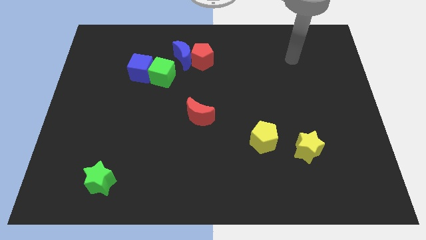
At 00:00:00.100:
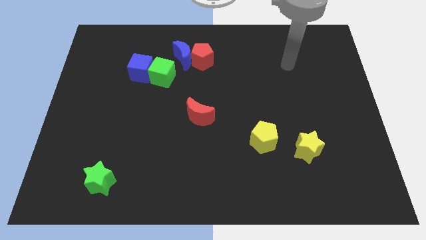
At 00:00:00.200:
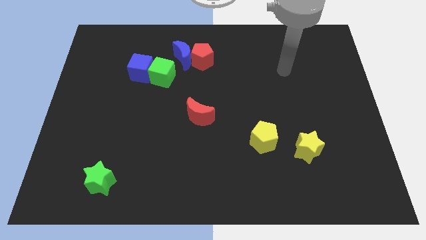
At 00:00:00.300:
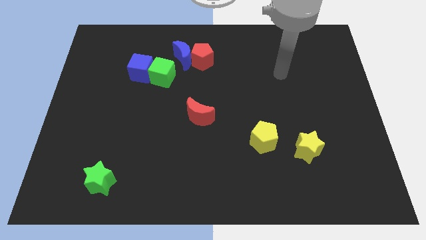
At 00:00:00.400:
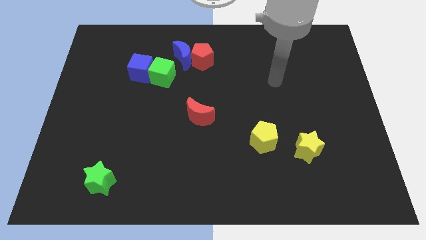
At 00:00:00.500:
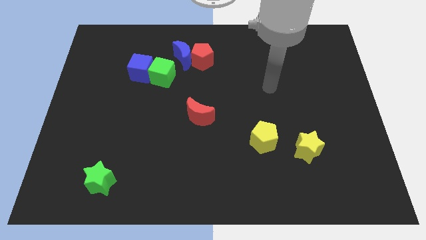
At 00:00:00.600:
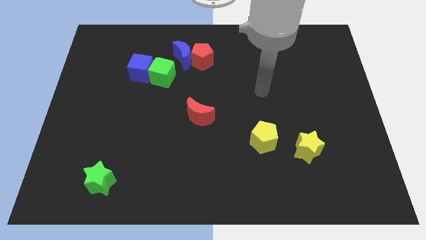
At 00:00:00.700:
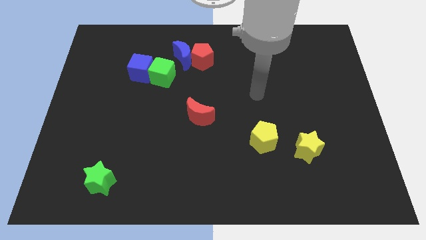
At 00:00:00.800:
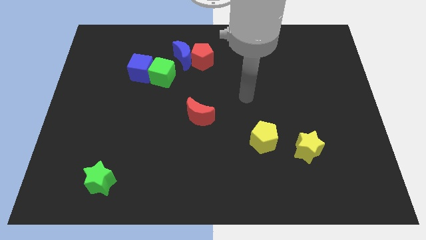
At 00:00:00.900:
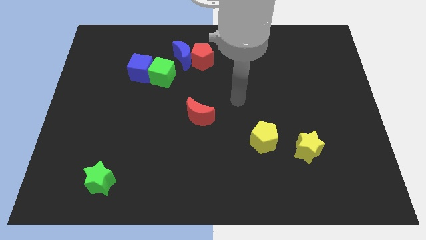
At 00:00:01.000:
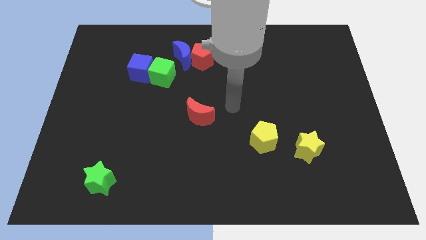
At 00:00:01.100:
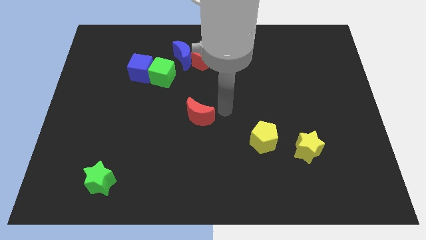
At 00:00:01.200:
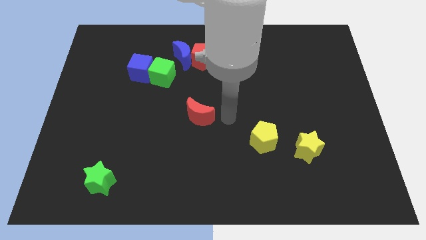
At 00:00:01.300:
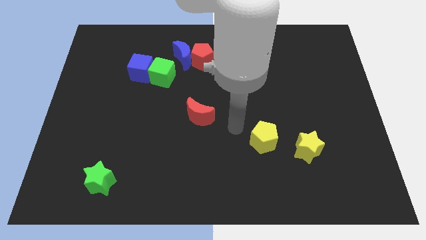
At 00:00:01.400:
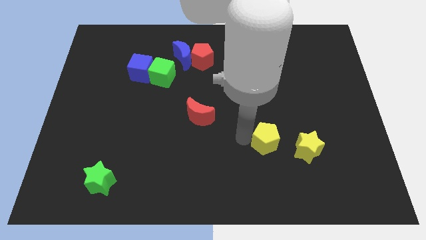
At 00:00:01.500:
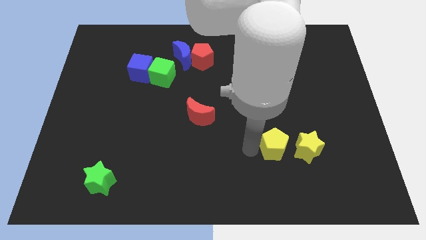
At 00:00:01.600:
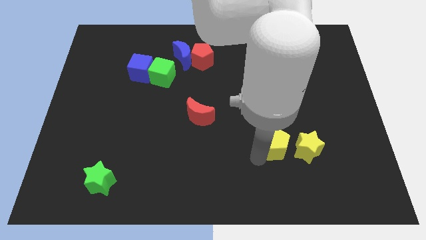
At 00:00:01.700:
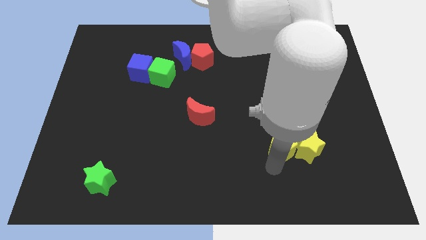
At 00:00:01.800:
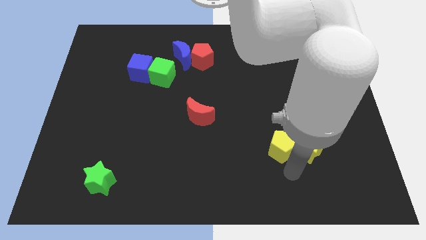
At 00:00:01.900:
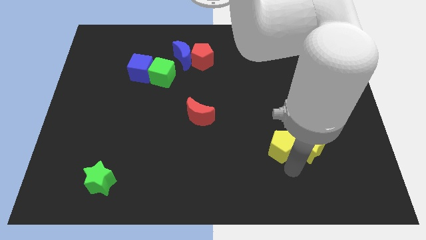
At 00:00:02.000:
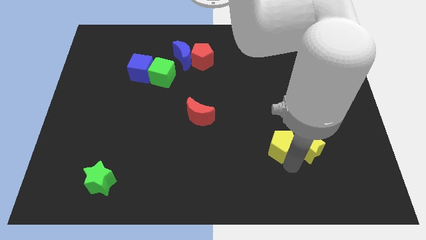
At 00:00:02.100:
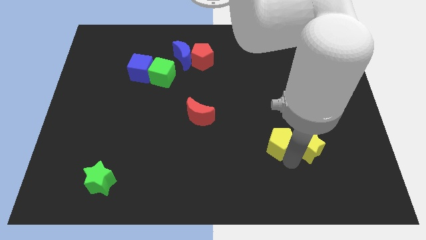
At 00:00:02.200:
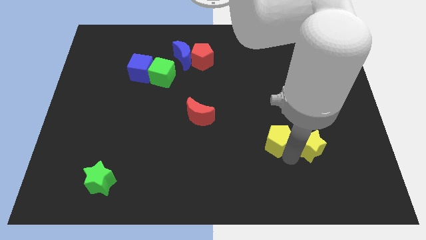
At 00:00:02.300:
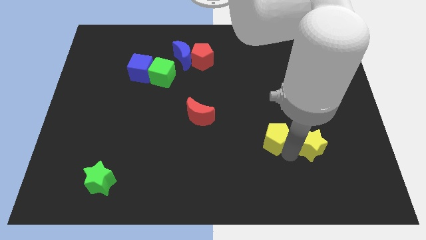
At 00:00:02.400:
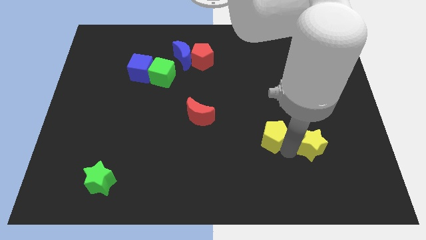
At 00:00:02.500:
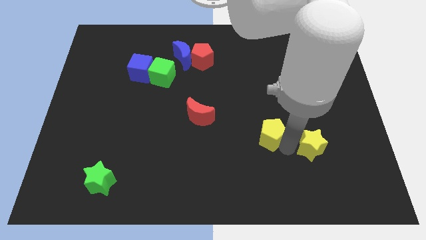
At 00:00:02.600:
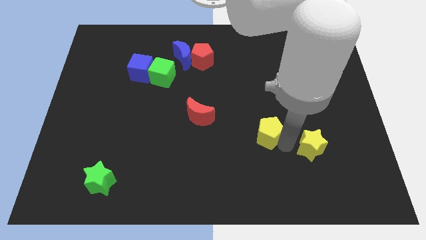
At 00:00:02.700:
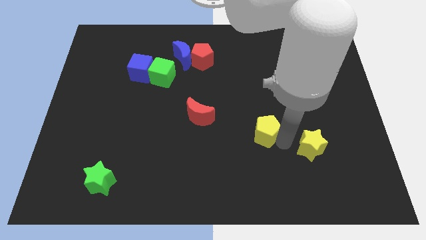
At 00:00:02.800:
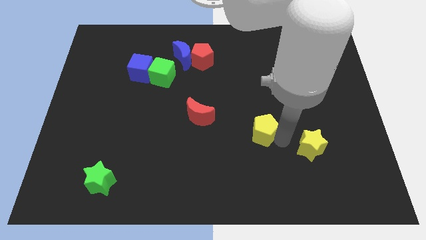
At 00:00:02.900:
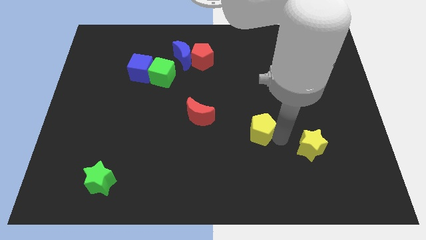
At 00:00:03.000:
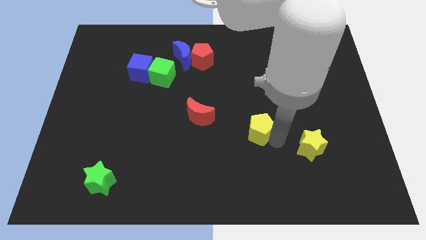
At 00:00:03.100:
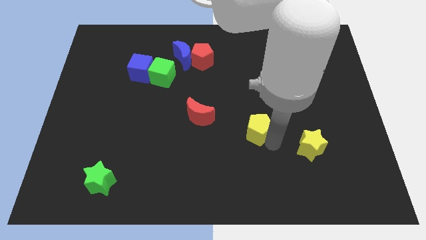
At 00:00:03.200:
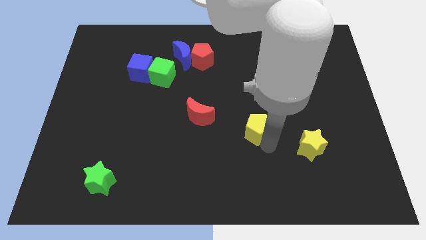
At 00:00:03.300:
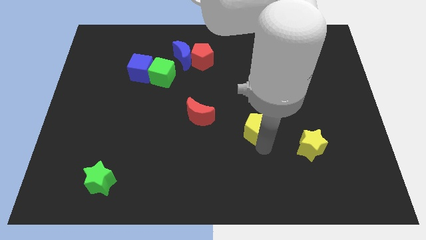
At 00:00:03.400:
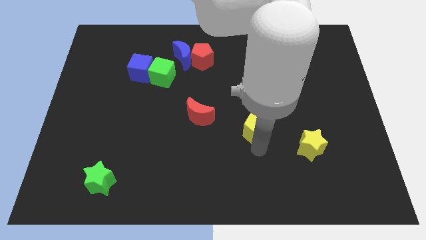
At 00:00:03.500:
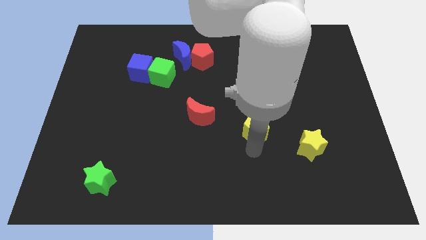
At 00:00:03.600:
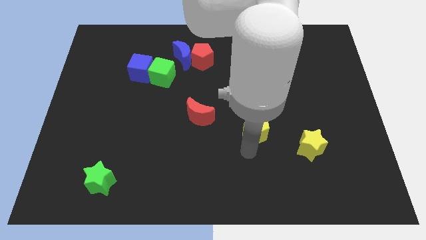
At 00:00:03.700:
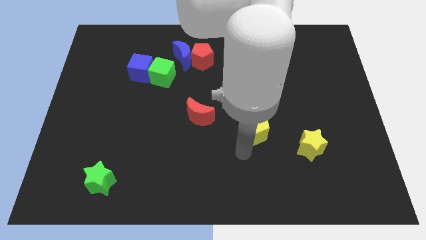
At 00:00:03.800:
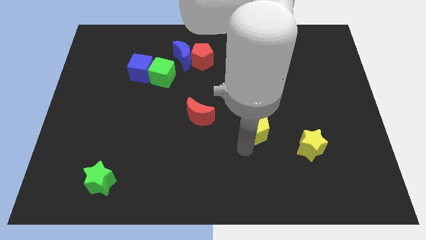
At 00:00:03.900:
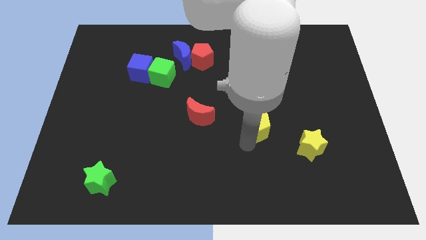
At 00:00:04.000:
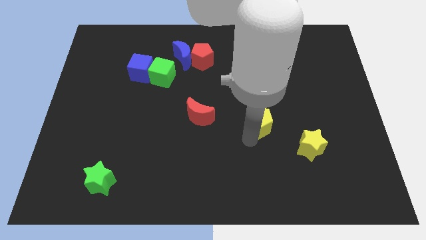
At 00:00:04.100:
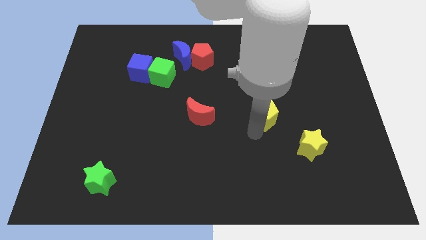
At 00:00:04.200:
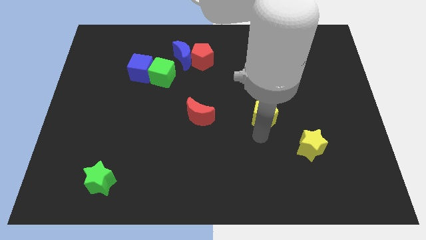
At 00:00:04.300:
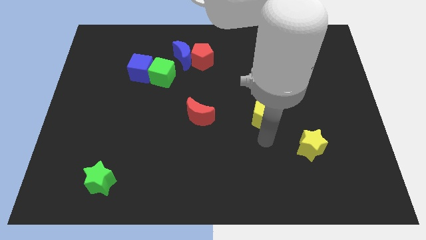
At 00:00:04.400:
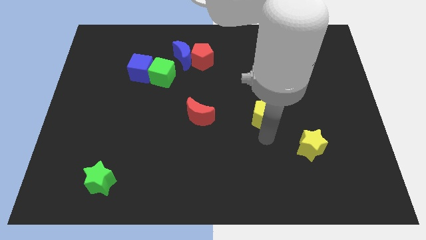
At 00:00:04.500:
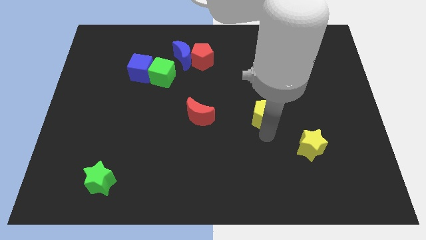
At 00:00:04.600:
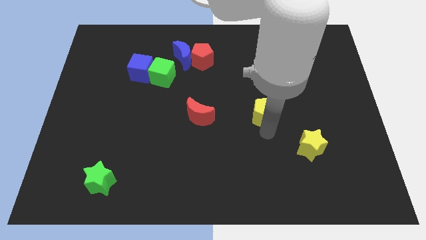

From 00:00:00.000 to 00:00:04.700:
slightly move the yellow pentagon up

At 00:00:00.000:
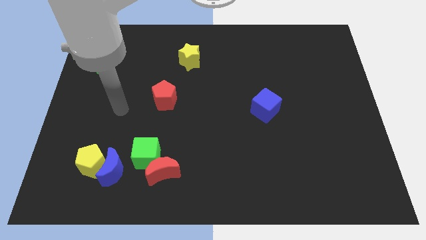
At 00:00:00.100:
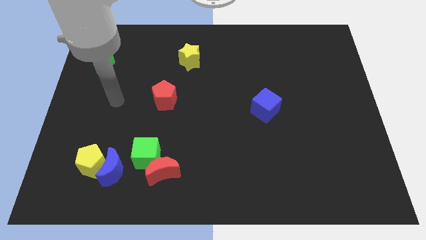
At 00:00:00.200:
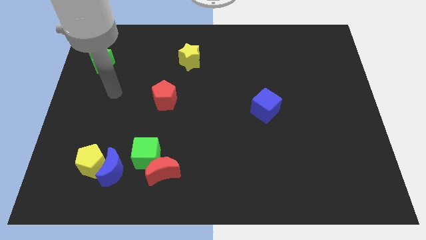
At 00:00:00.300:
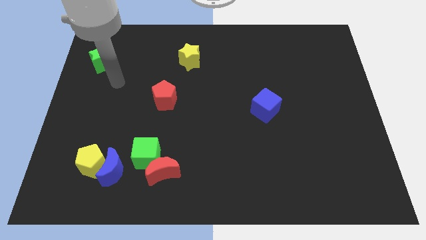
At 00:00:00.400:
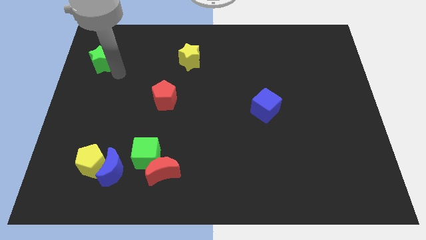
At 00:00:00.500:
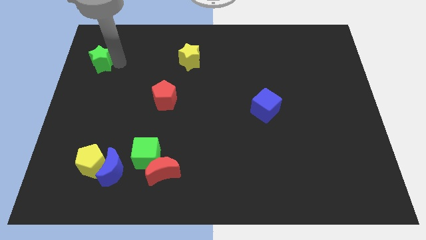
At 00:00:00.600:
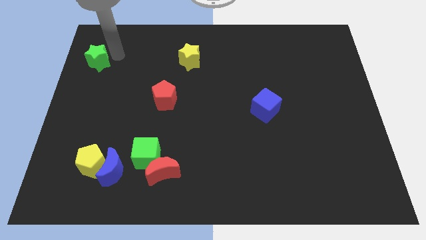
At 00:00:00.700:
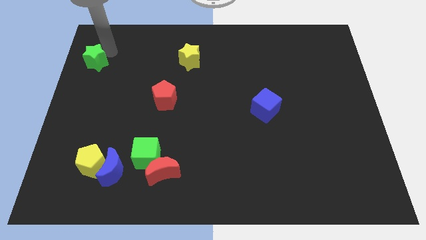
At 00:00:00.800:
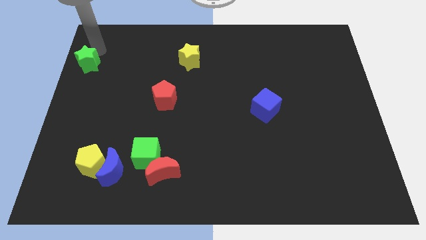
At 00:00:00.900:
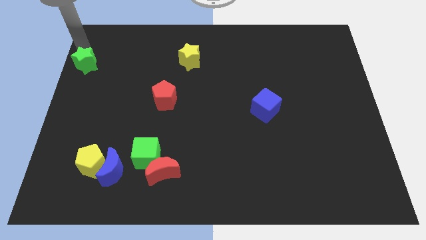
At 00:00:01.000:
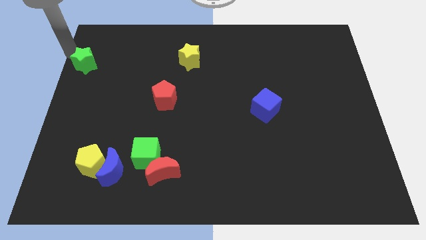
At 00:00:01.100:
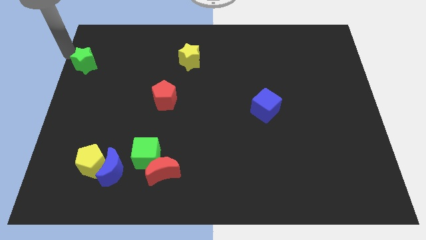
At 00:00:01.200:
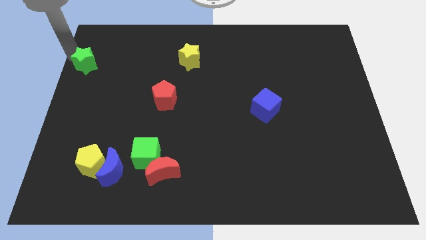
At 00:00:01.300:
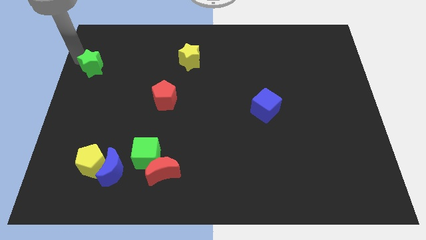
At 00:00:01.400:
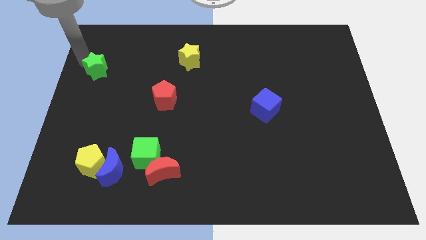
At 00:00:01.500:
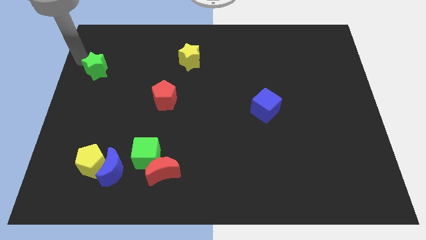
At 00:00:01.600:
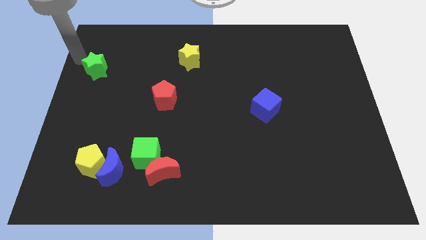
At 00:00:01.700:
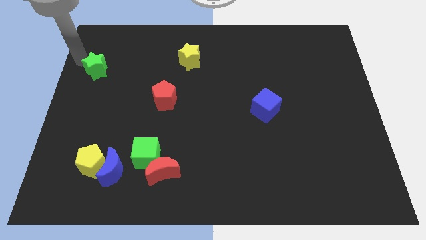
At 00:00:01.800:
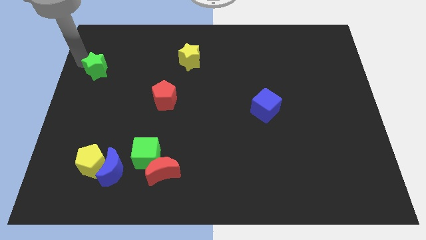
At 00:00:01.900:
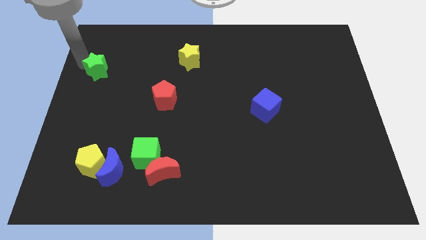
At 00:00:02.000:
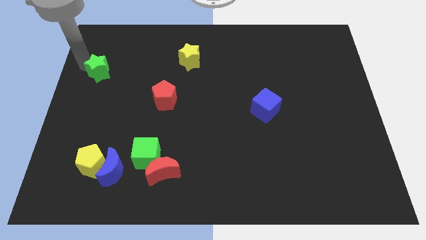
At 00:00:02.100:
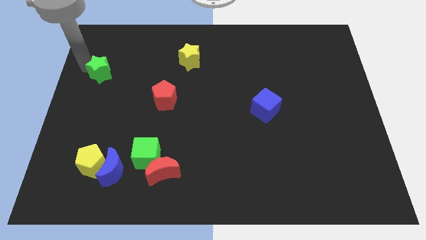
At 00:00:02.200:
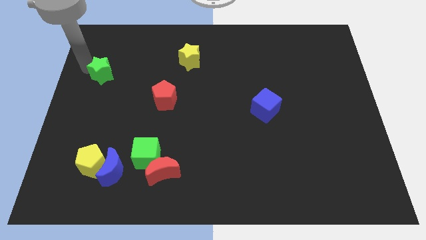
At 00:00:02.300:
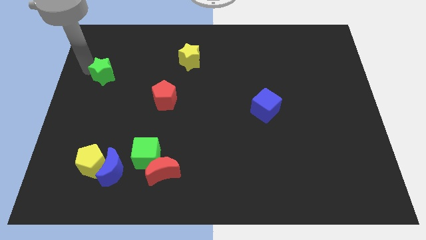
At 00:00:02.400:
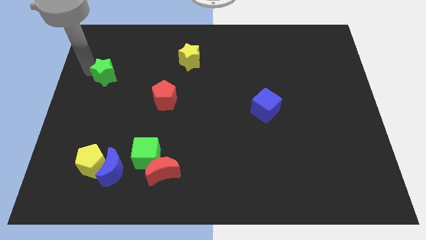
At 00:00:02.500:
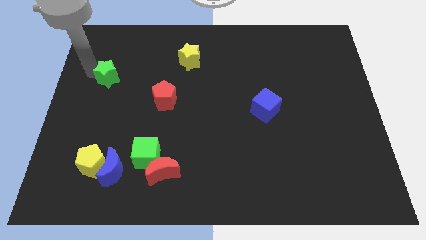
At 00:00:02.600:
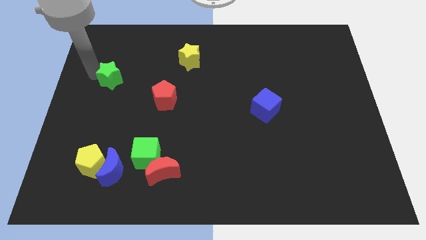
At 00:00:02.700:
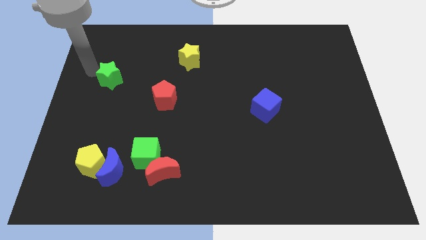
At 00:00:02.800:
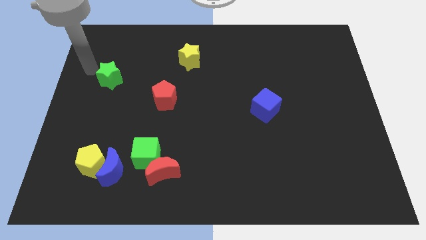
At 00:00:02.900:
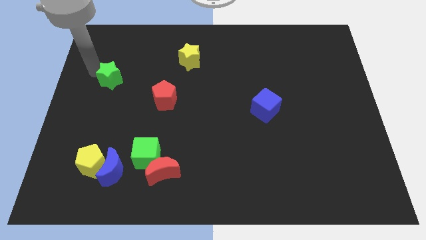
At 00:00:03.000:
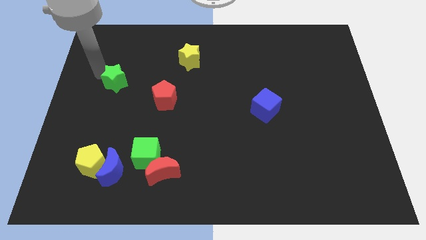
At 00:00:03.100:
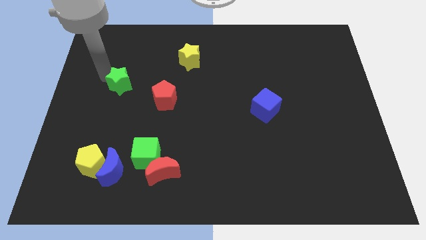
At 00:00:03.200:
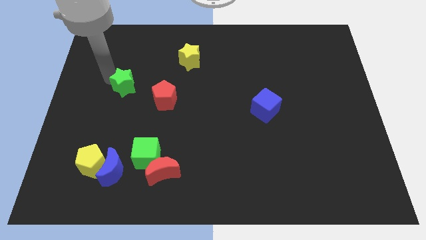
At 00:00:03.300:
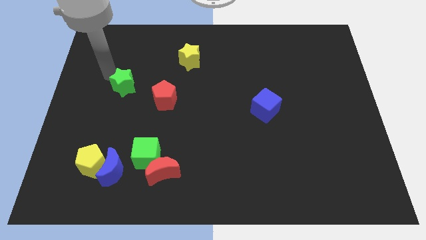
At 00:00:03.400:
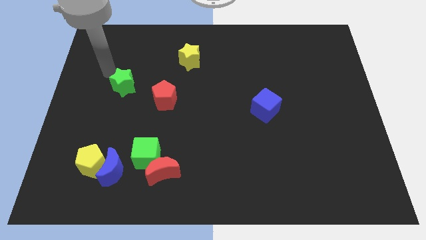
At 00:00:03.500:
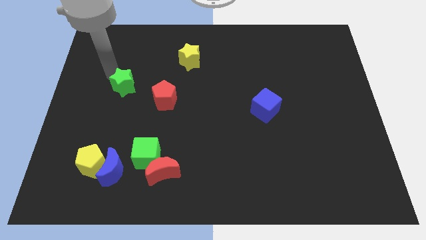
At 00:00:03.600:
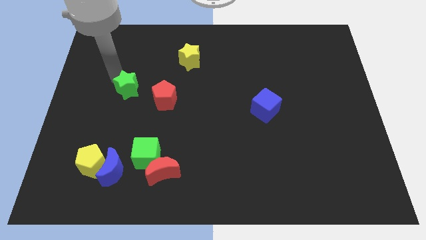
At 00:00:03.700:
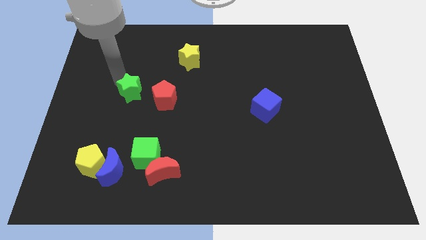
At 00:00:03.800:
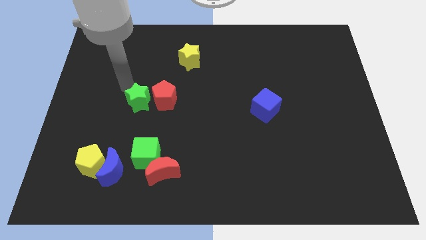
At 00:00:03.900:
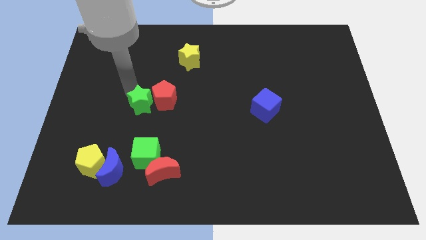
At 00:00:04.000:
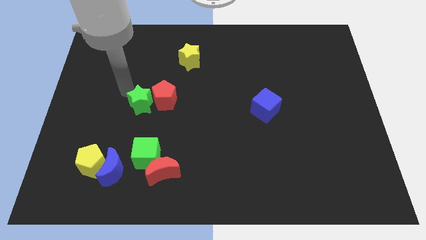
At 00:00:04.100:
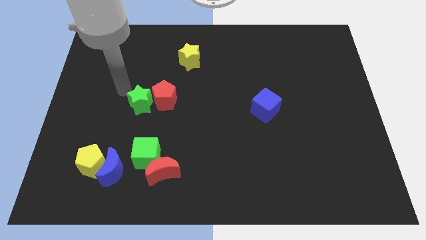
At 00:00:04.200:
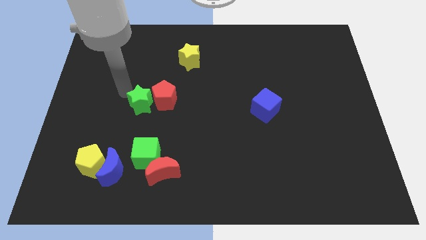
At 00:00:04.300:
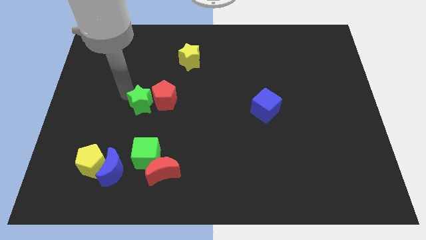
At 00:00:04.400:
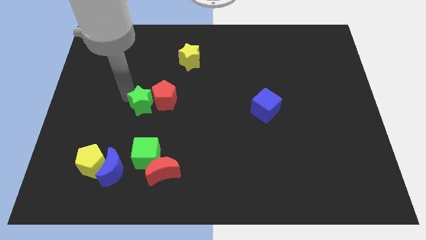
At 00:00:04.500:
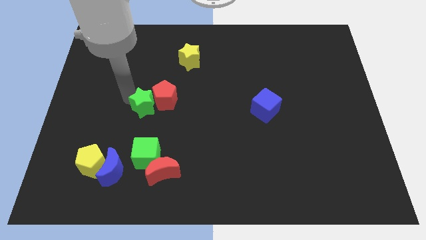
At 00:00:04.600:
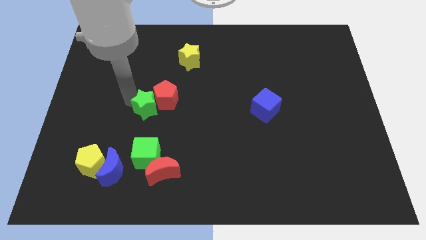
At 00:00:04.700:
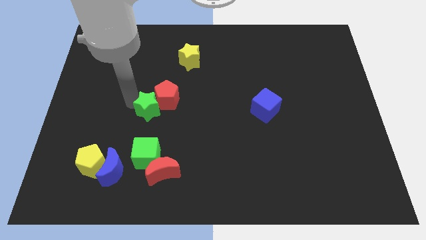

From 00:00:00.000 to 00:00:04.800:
push the green star downwards and right
